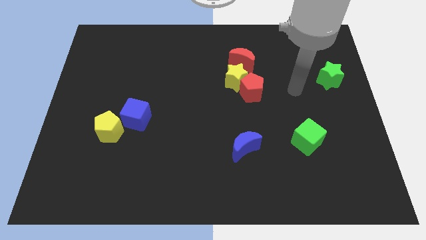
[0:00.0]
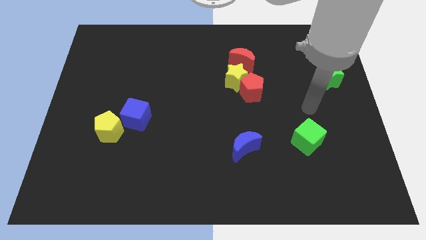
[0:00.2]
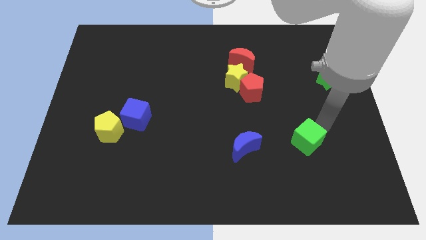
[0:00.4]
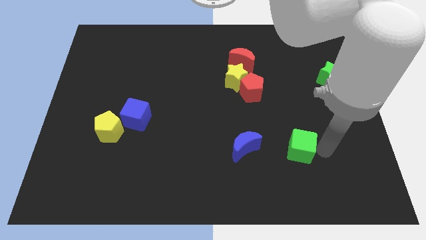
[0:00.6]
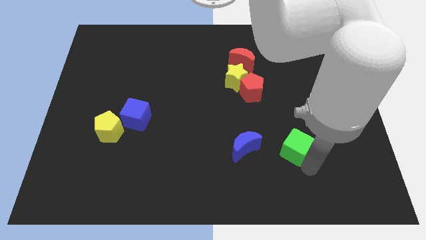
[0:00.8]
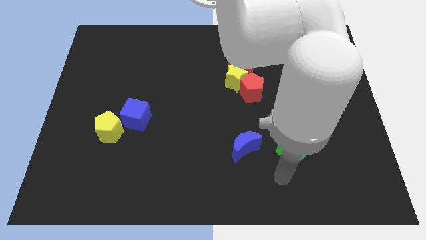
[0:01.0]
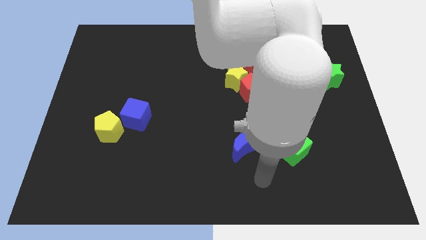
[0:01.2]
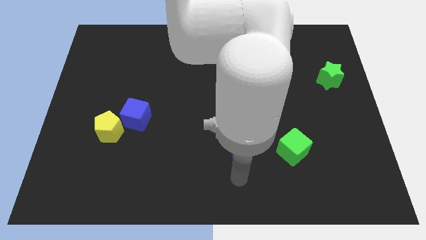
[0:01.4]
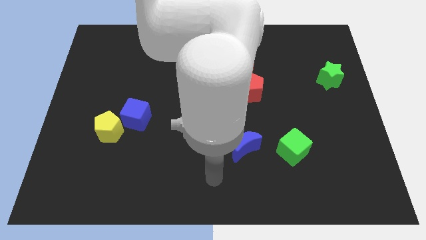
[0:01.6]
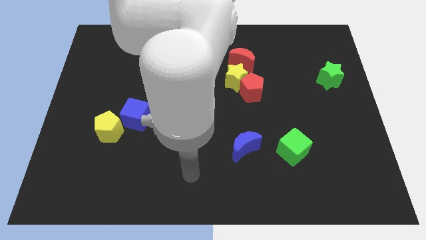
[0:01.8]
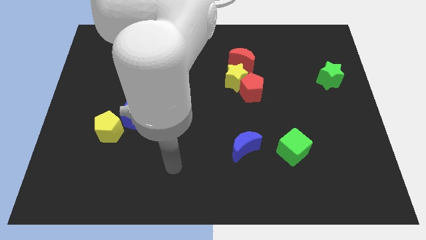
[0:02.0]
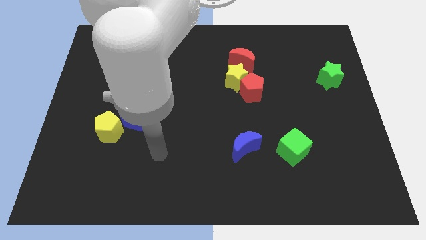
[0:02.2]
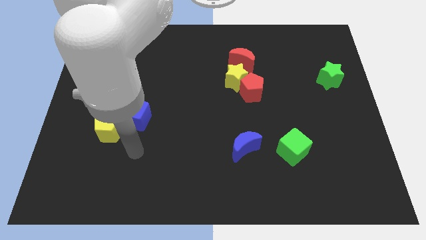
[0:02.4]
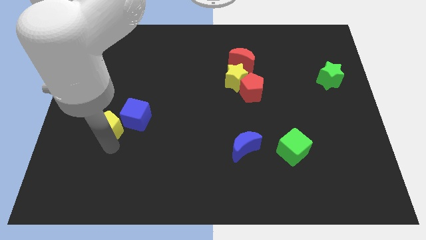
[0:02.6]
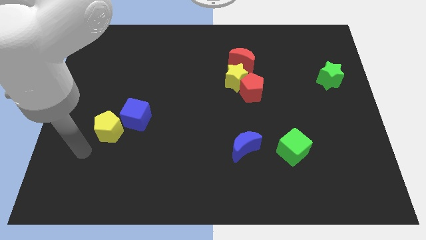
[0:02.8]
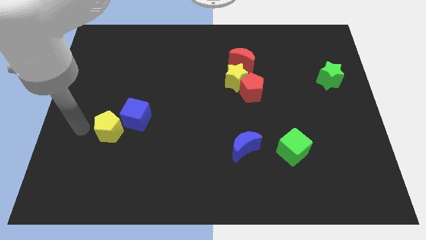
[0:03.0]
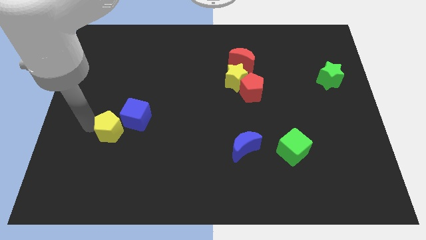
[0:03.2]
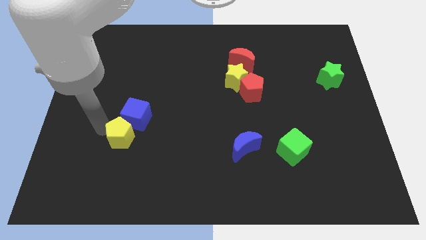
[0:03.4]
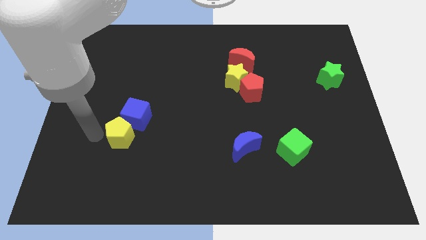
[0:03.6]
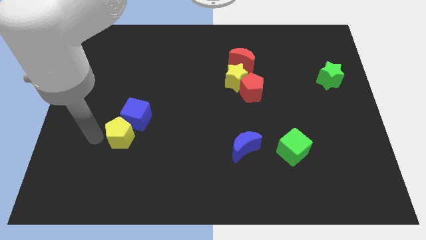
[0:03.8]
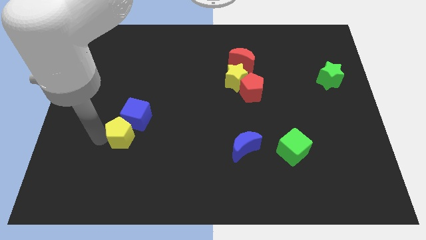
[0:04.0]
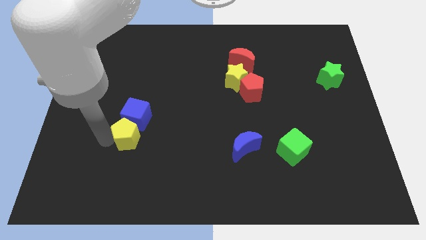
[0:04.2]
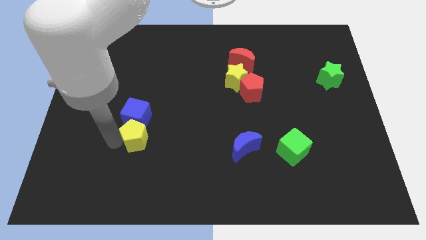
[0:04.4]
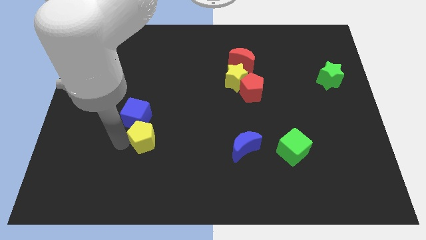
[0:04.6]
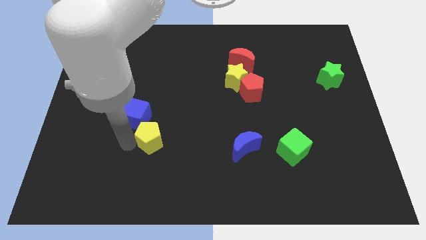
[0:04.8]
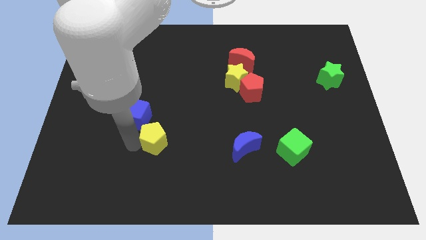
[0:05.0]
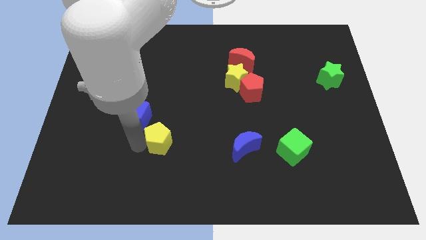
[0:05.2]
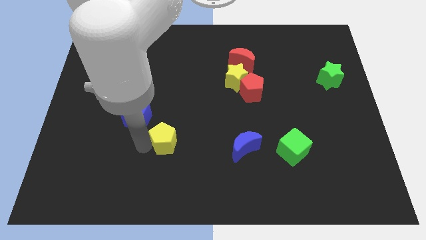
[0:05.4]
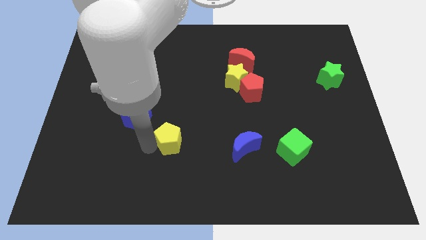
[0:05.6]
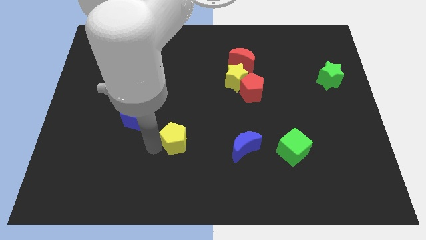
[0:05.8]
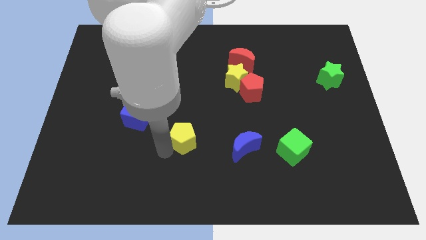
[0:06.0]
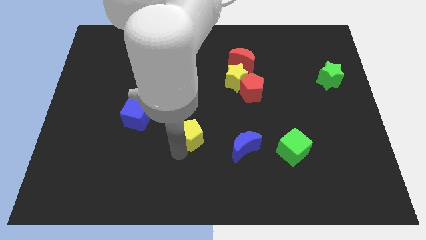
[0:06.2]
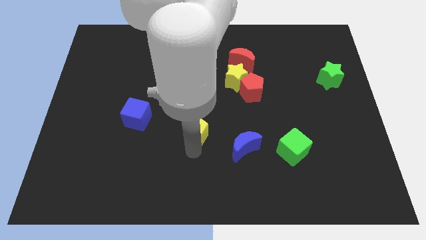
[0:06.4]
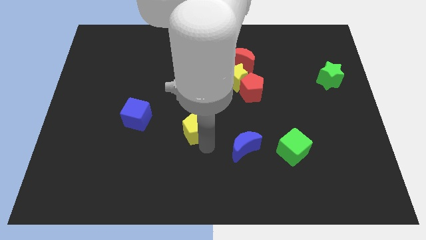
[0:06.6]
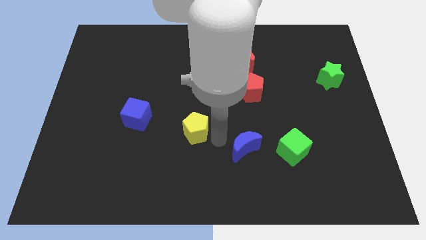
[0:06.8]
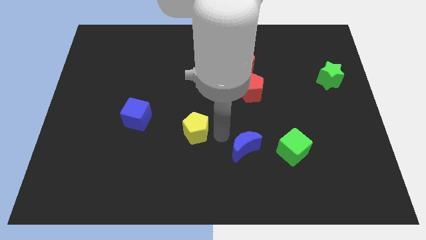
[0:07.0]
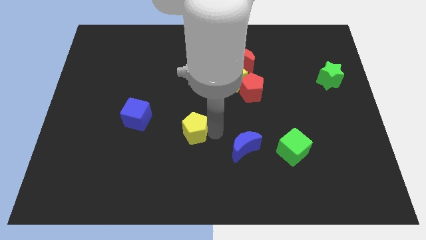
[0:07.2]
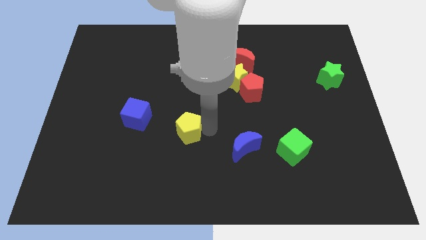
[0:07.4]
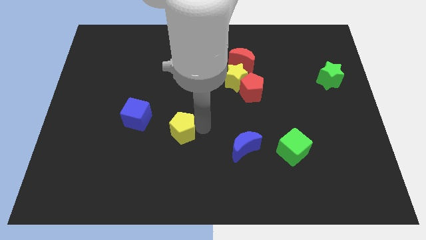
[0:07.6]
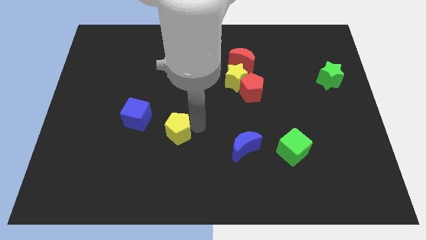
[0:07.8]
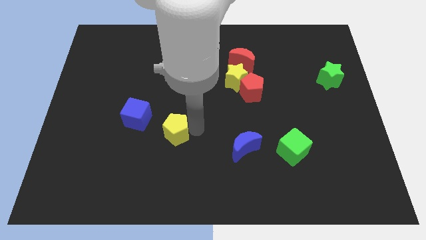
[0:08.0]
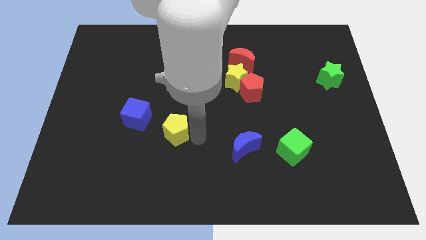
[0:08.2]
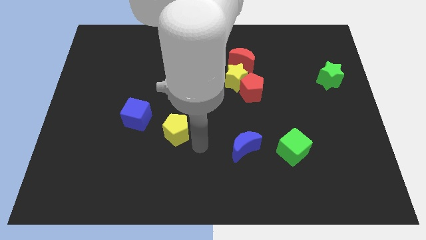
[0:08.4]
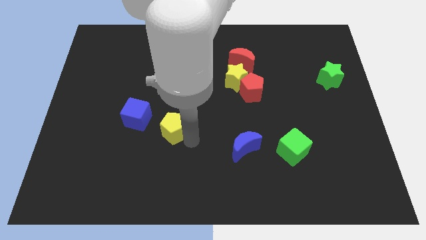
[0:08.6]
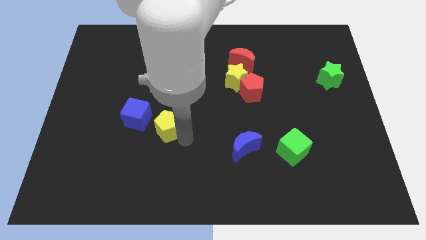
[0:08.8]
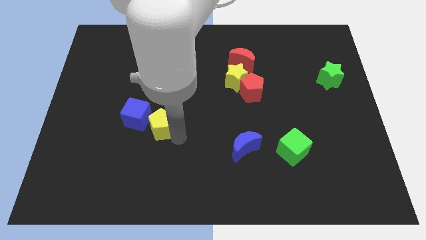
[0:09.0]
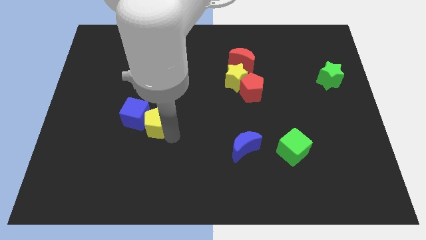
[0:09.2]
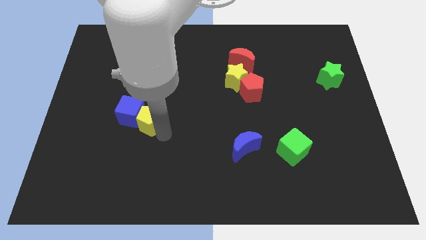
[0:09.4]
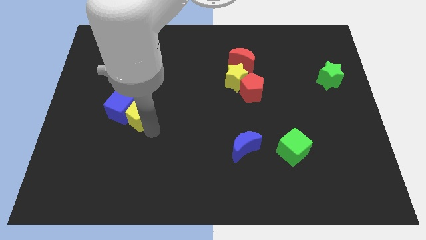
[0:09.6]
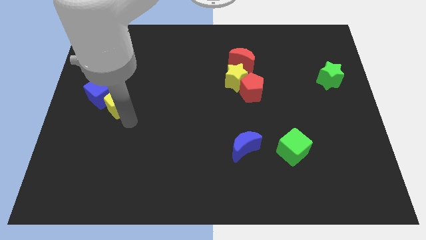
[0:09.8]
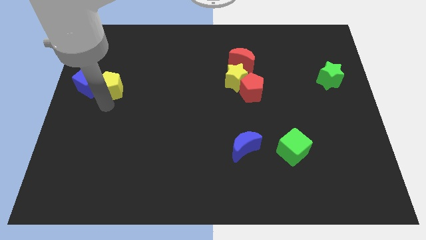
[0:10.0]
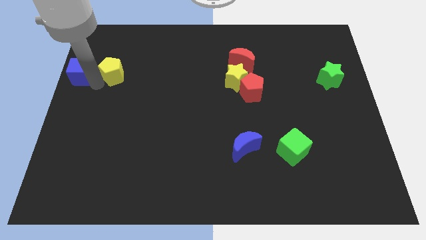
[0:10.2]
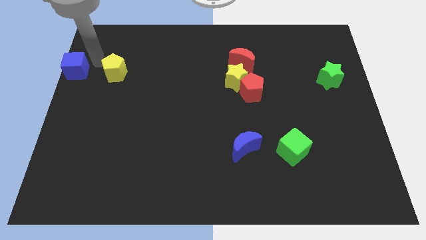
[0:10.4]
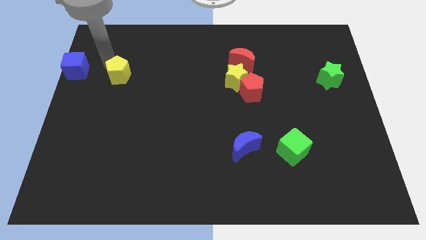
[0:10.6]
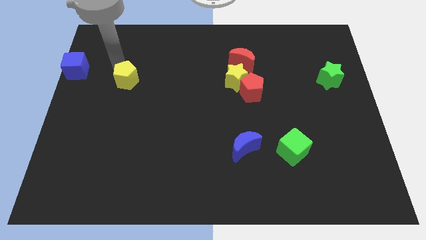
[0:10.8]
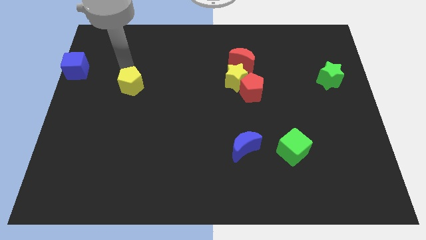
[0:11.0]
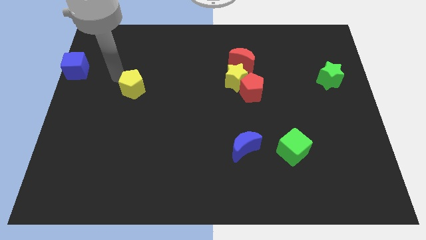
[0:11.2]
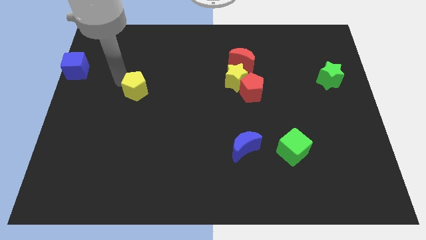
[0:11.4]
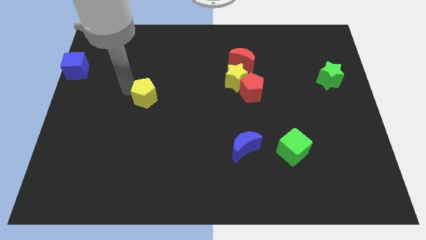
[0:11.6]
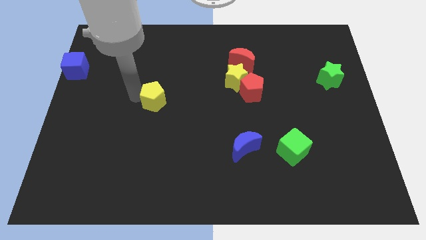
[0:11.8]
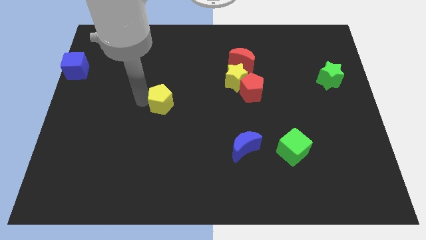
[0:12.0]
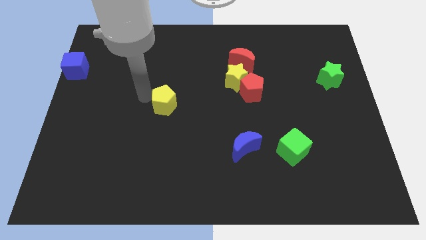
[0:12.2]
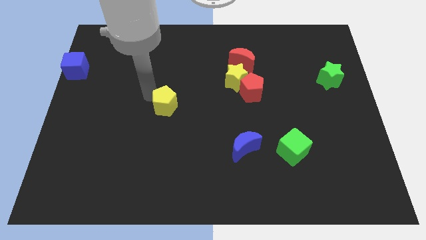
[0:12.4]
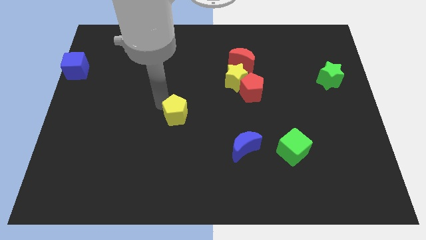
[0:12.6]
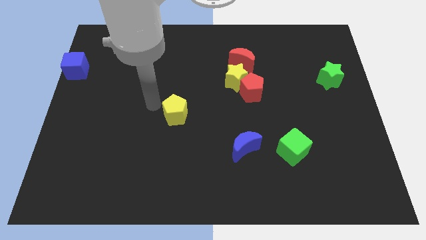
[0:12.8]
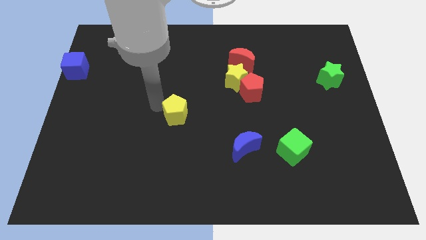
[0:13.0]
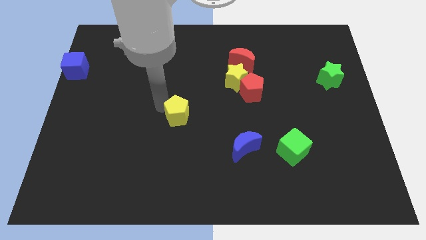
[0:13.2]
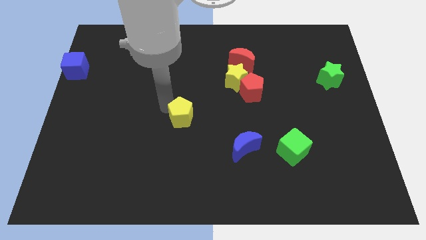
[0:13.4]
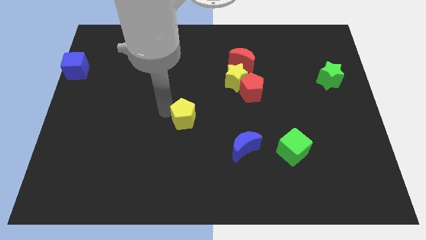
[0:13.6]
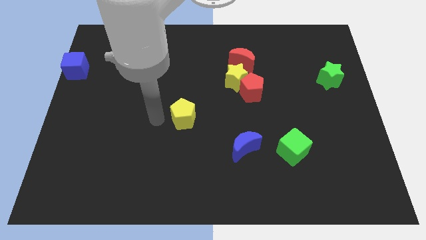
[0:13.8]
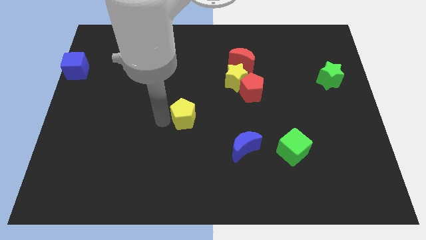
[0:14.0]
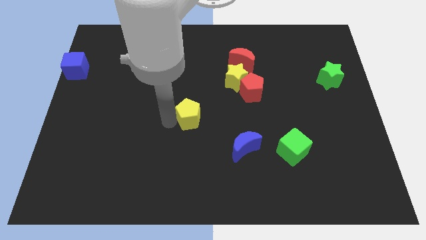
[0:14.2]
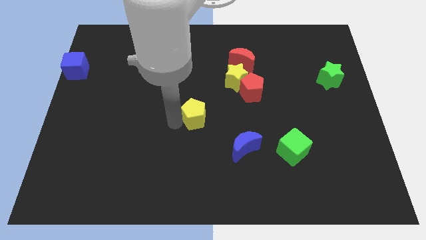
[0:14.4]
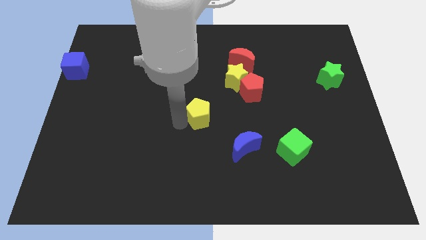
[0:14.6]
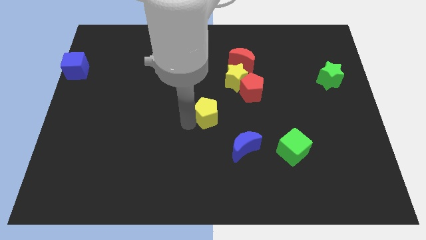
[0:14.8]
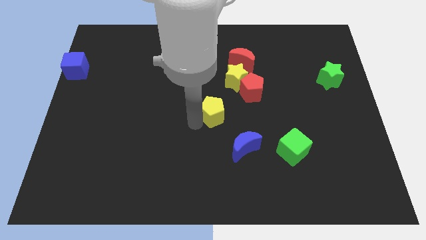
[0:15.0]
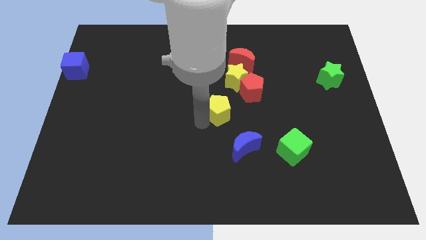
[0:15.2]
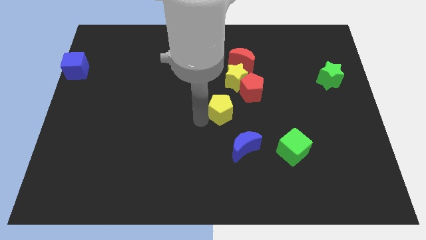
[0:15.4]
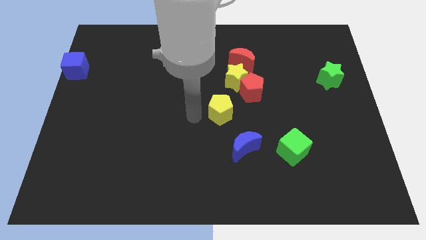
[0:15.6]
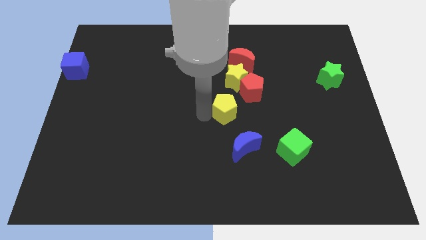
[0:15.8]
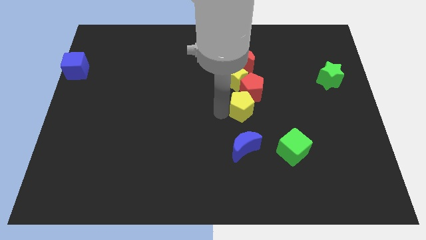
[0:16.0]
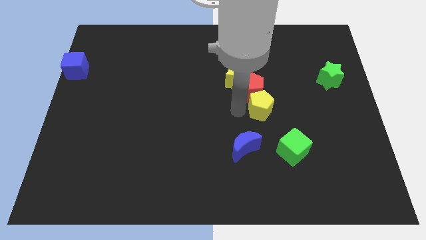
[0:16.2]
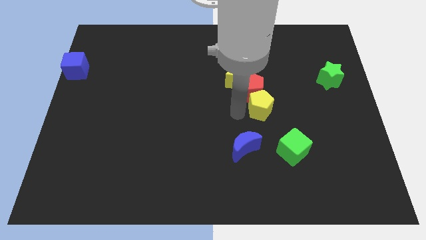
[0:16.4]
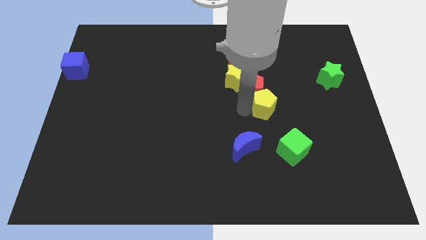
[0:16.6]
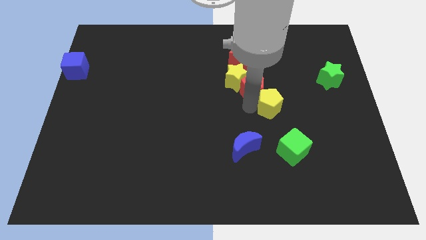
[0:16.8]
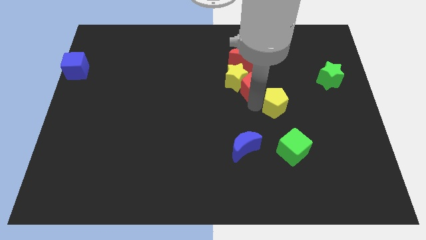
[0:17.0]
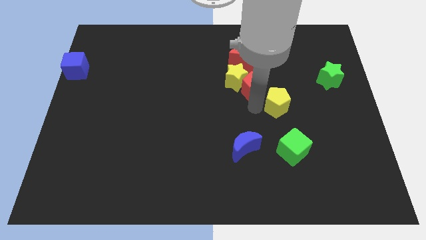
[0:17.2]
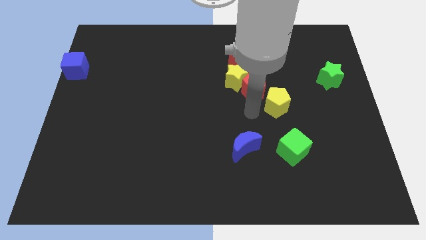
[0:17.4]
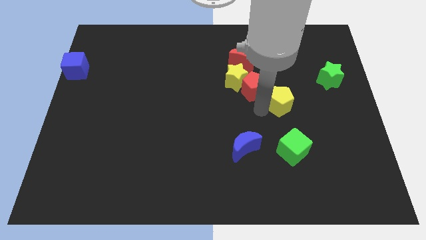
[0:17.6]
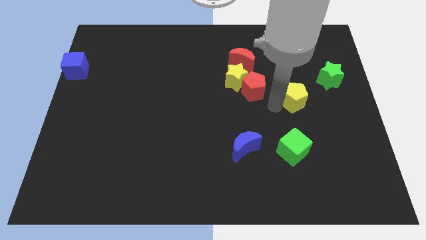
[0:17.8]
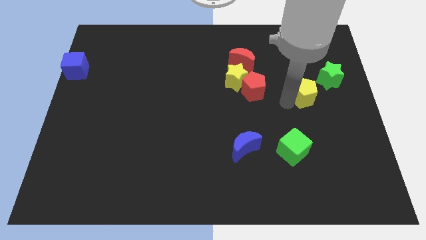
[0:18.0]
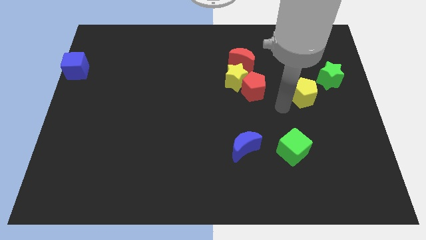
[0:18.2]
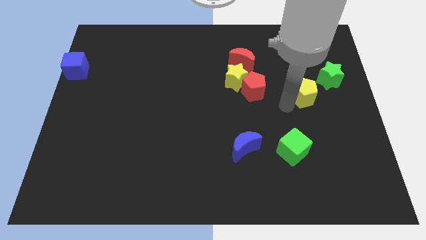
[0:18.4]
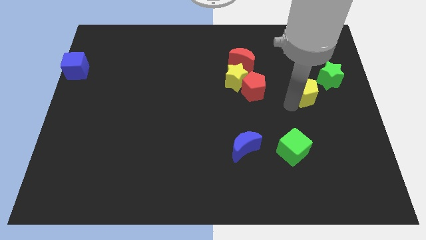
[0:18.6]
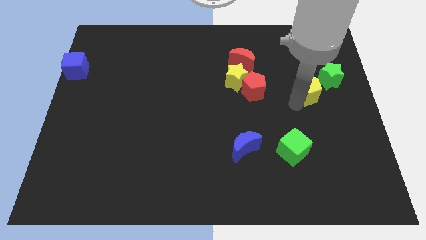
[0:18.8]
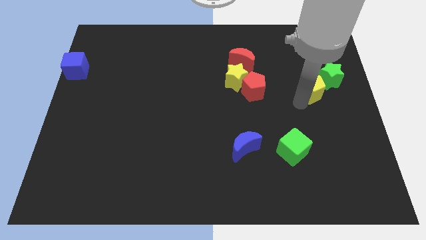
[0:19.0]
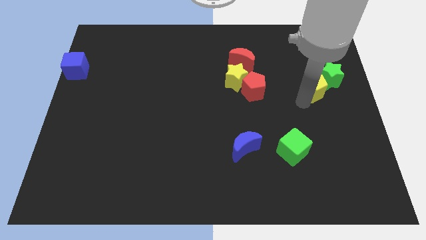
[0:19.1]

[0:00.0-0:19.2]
slide the yellow pentagon close to the green star
